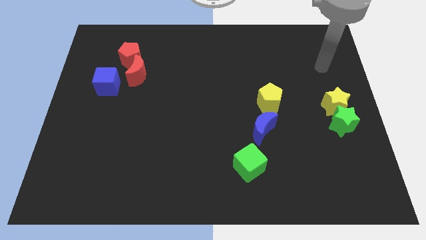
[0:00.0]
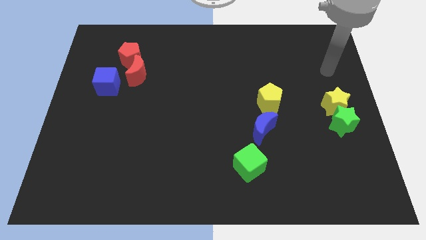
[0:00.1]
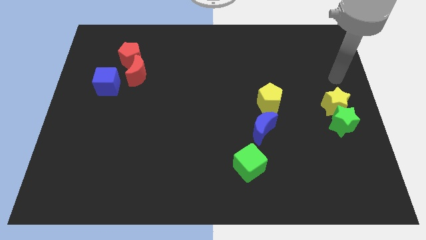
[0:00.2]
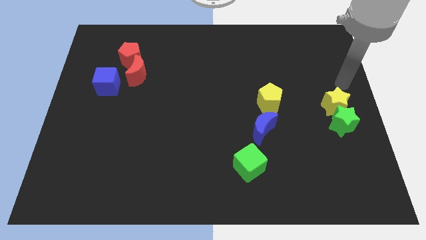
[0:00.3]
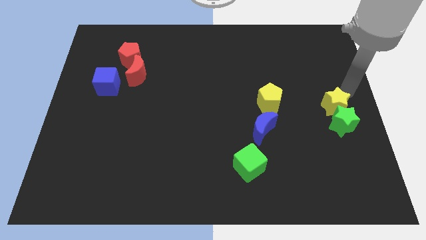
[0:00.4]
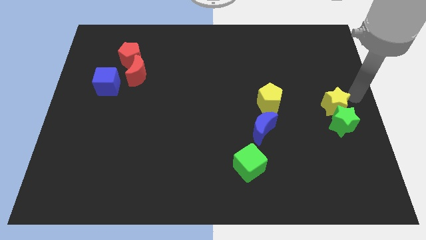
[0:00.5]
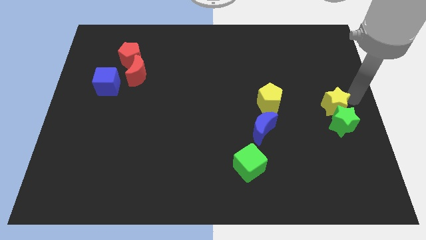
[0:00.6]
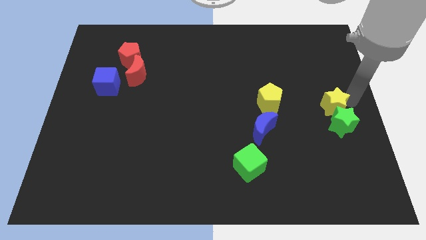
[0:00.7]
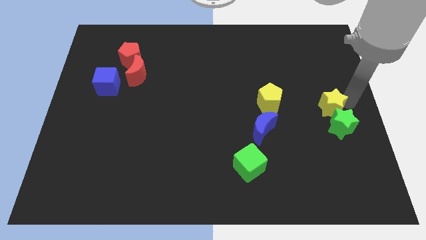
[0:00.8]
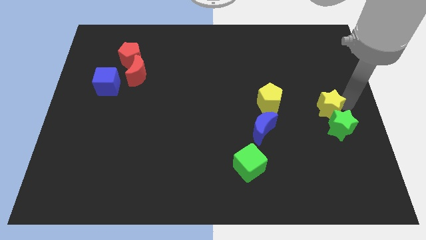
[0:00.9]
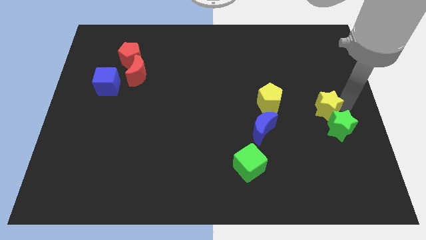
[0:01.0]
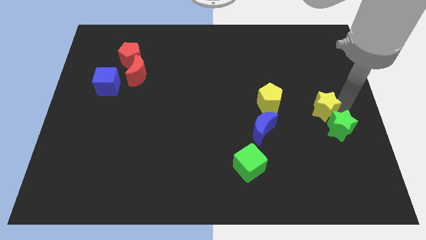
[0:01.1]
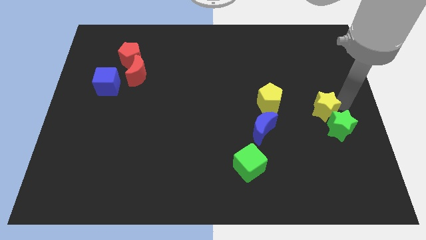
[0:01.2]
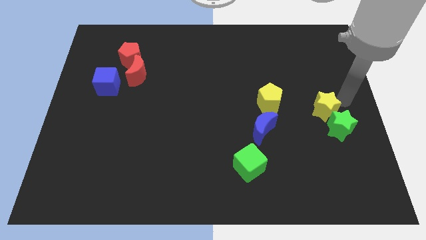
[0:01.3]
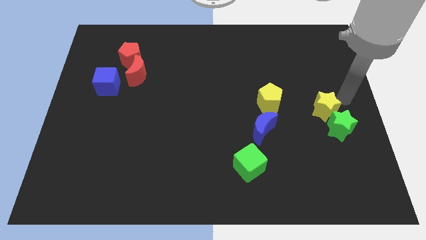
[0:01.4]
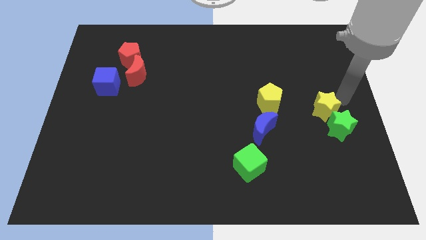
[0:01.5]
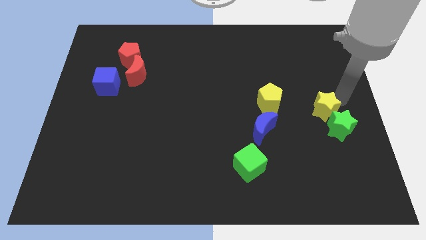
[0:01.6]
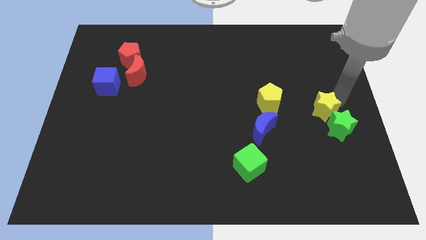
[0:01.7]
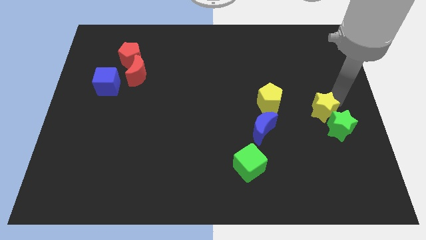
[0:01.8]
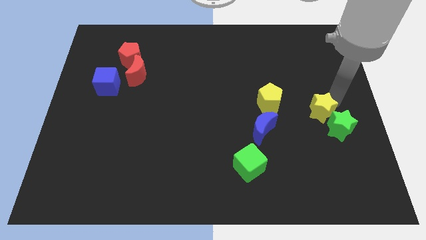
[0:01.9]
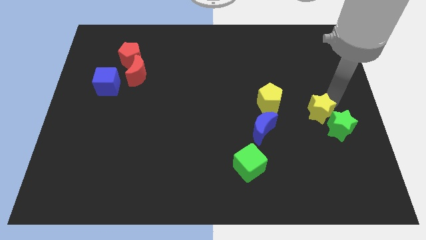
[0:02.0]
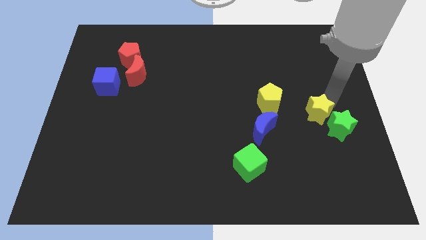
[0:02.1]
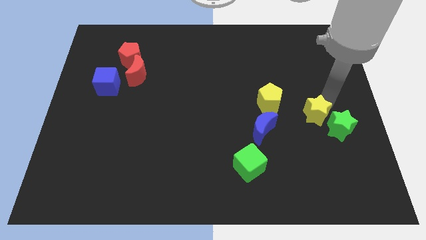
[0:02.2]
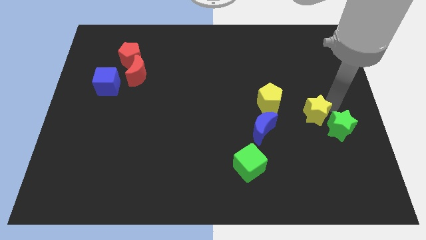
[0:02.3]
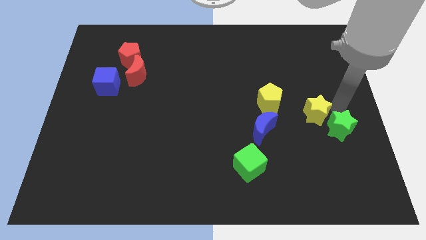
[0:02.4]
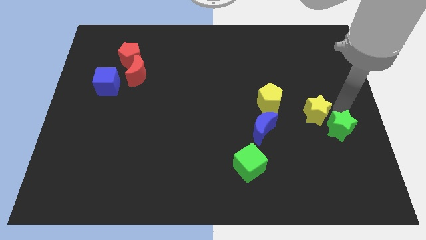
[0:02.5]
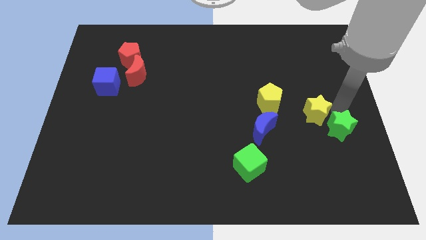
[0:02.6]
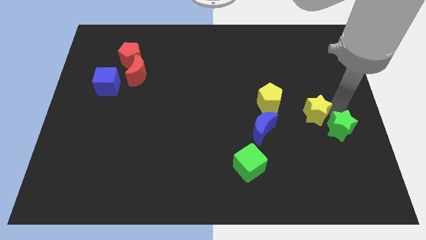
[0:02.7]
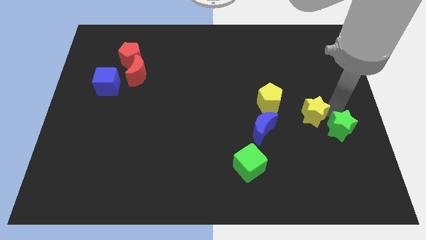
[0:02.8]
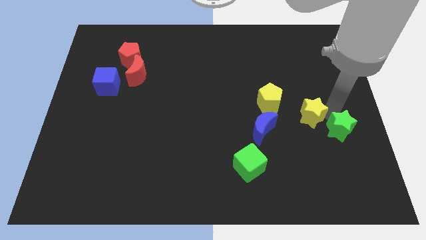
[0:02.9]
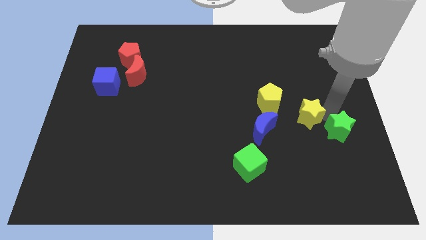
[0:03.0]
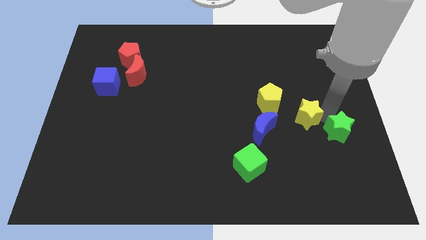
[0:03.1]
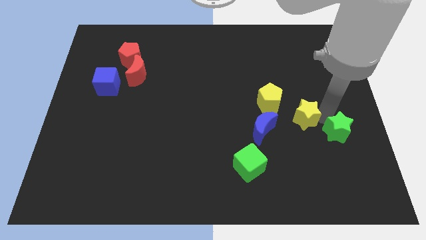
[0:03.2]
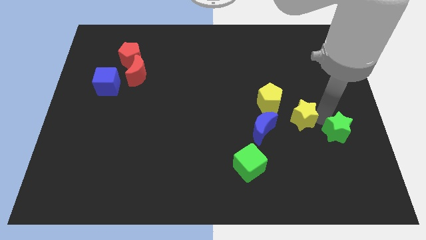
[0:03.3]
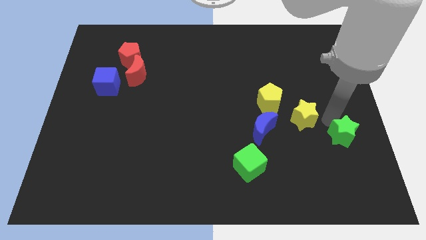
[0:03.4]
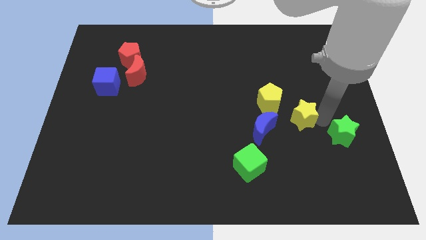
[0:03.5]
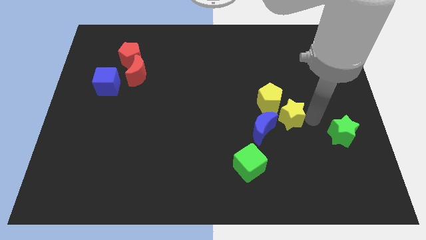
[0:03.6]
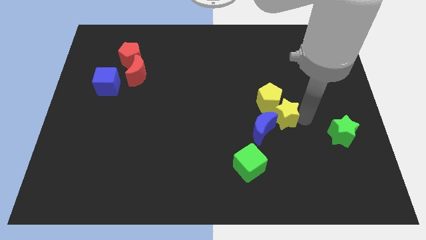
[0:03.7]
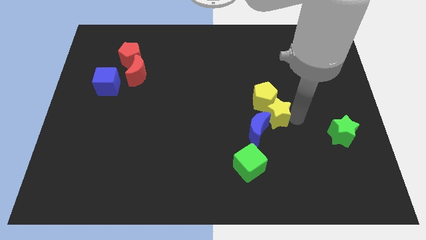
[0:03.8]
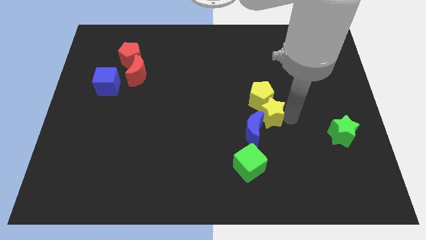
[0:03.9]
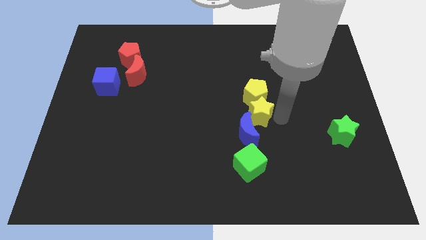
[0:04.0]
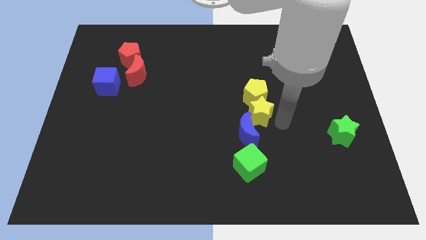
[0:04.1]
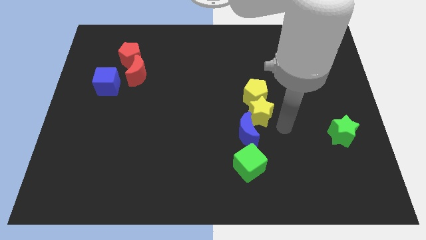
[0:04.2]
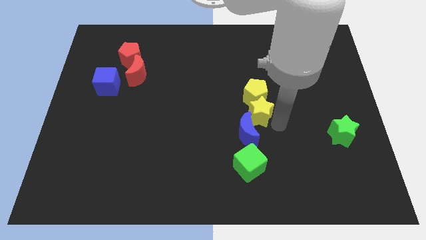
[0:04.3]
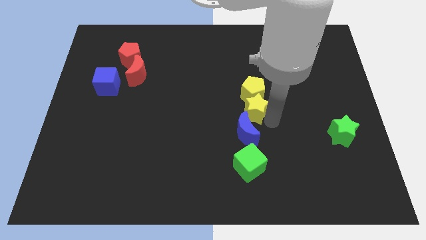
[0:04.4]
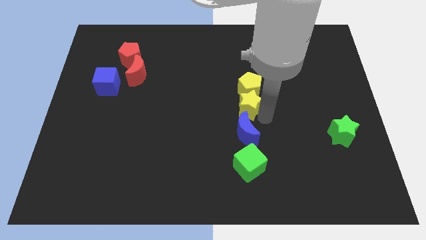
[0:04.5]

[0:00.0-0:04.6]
push the yellow star to the left

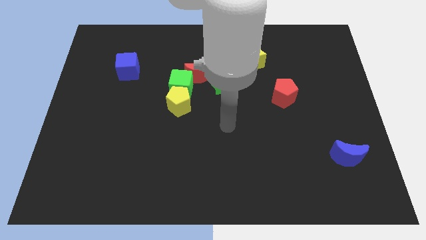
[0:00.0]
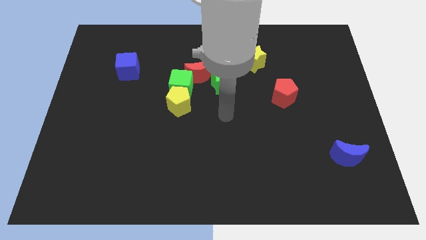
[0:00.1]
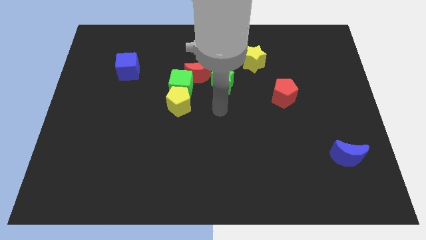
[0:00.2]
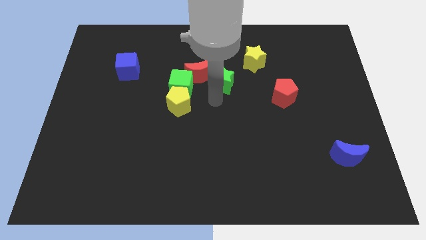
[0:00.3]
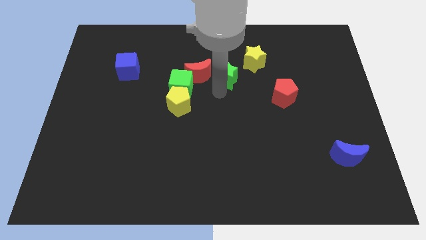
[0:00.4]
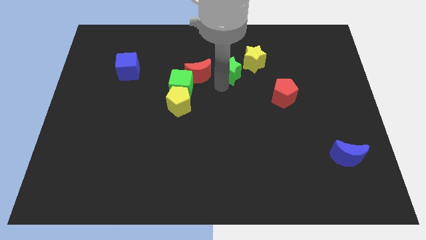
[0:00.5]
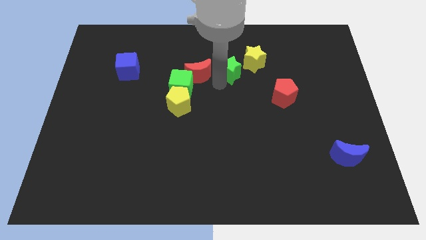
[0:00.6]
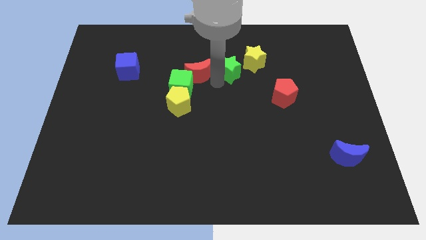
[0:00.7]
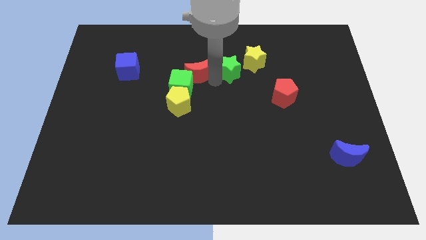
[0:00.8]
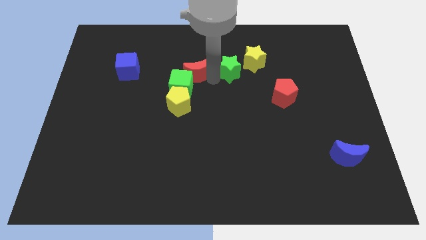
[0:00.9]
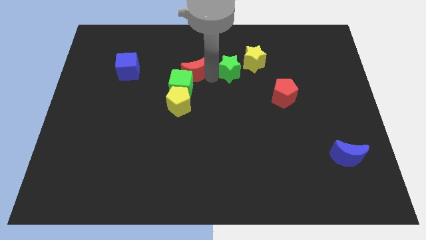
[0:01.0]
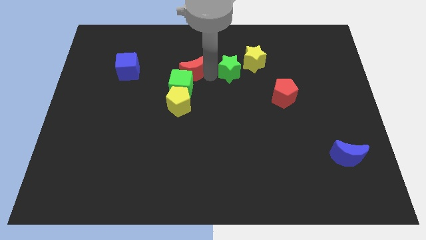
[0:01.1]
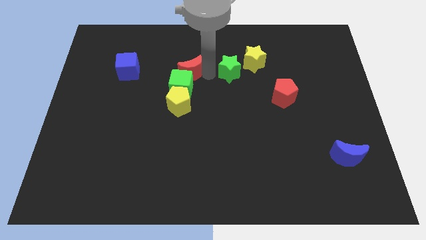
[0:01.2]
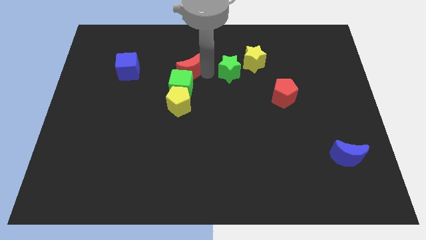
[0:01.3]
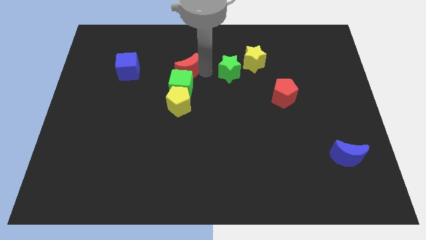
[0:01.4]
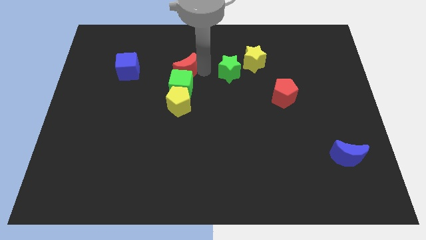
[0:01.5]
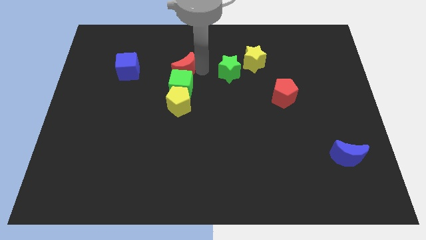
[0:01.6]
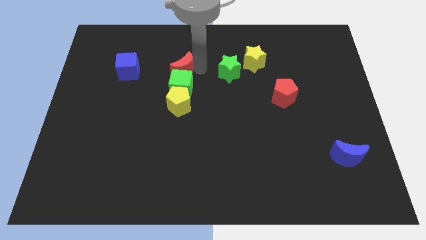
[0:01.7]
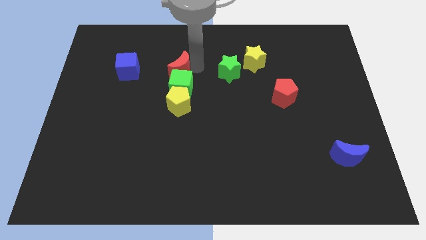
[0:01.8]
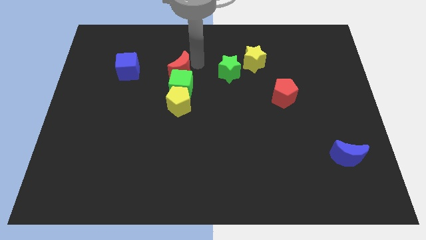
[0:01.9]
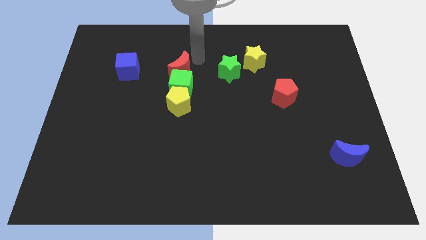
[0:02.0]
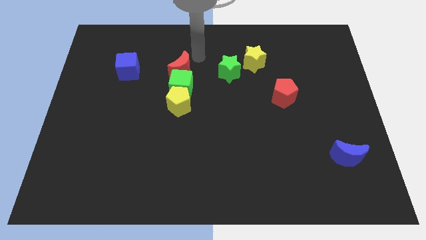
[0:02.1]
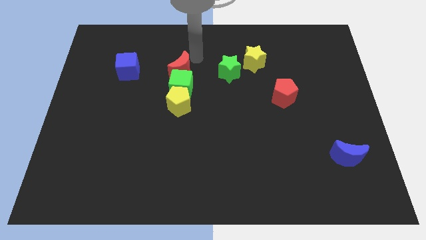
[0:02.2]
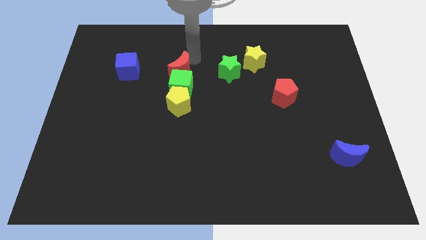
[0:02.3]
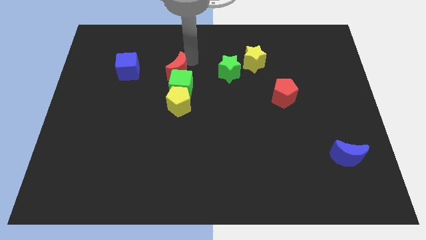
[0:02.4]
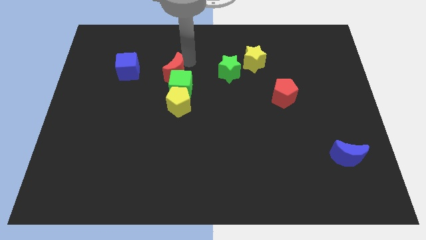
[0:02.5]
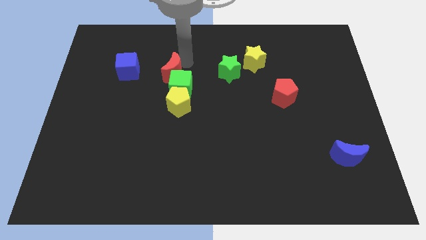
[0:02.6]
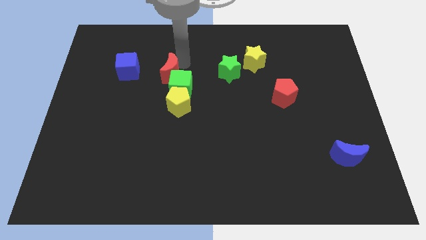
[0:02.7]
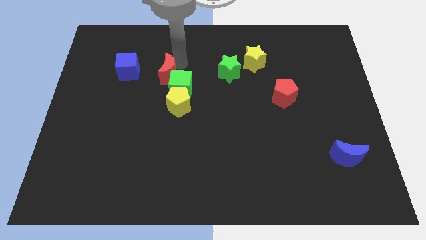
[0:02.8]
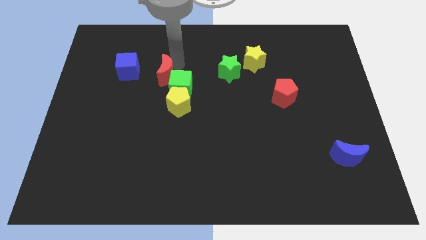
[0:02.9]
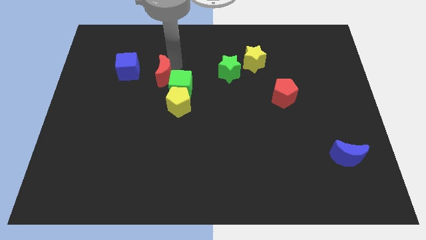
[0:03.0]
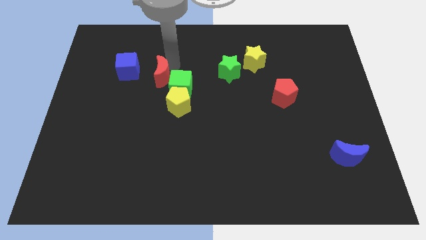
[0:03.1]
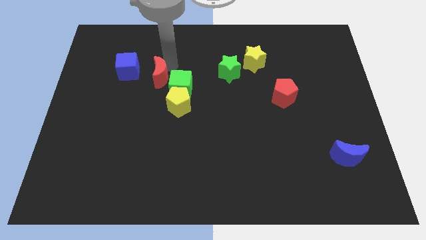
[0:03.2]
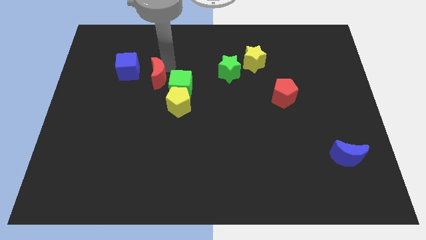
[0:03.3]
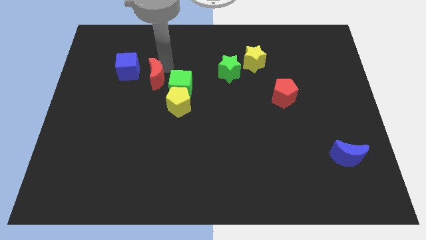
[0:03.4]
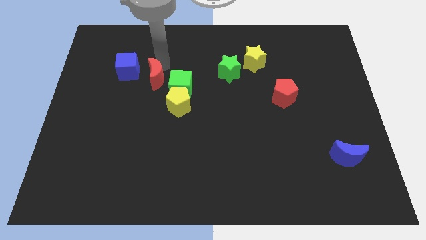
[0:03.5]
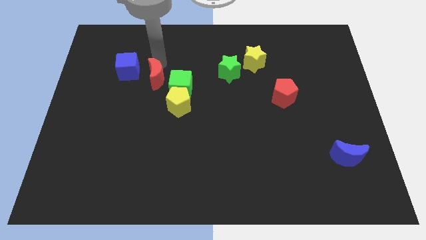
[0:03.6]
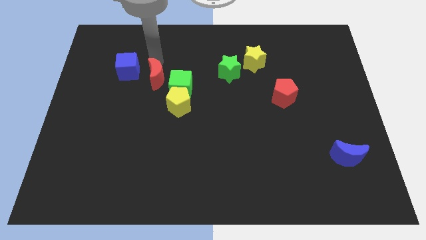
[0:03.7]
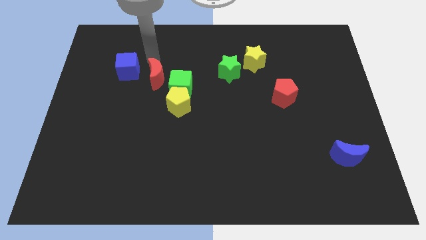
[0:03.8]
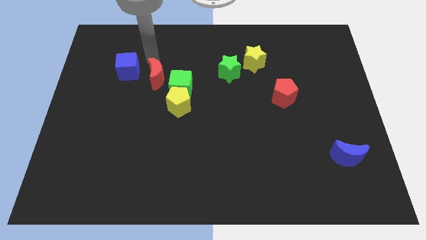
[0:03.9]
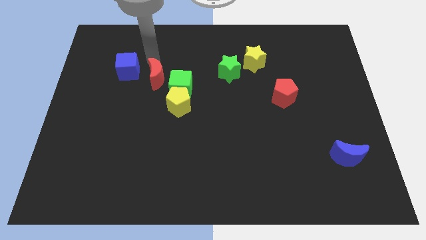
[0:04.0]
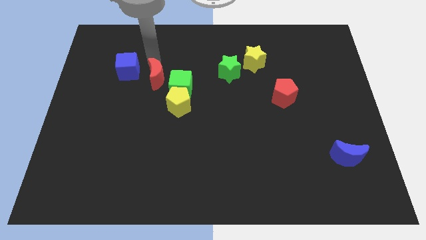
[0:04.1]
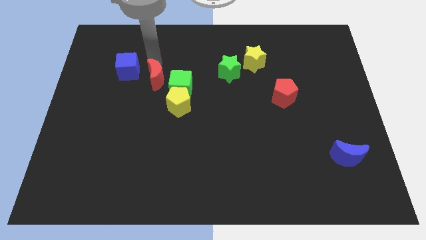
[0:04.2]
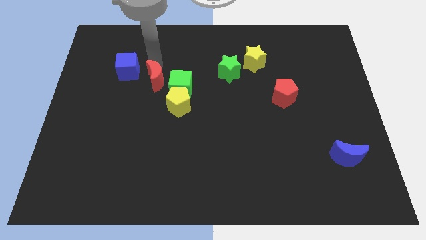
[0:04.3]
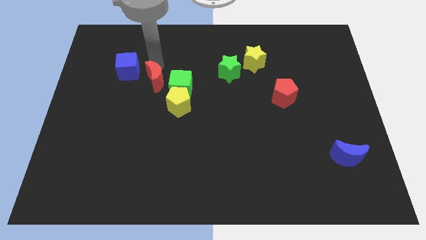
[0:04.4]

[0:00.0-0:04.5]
push the red moon somewhat down and to the left
